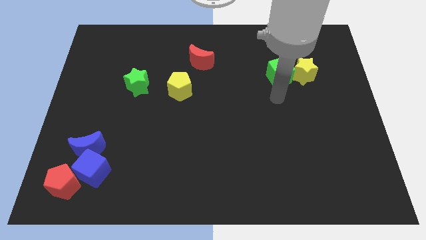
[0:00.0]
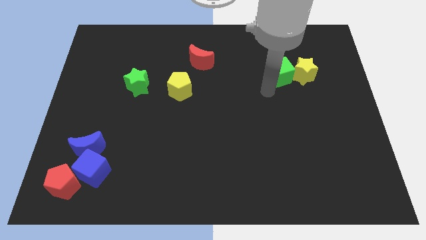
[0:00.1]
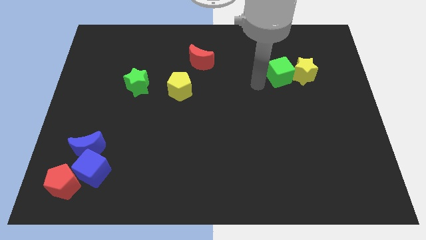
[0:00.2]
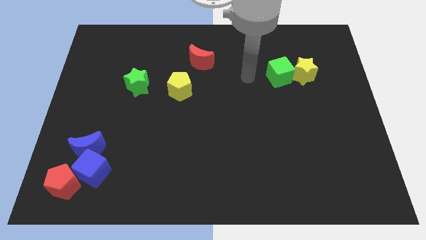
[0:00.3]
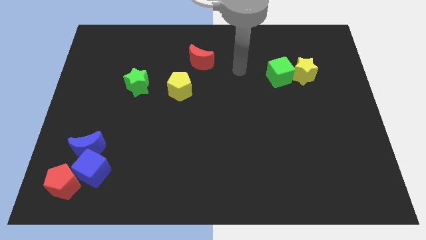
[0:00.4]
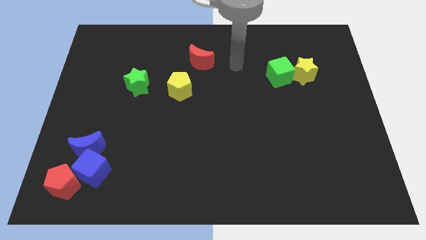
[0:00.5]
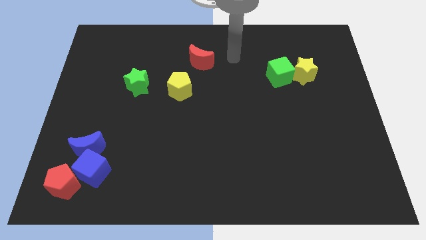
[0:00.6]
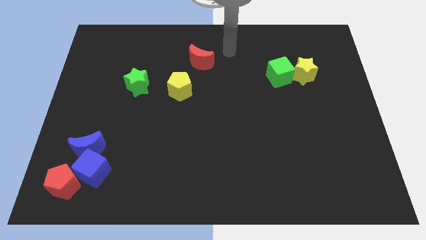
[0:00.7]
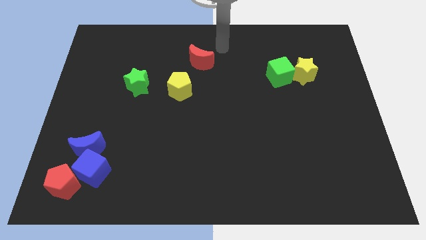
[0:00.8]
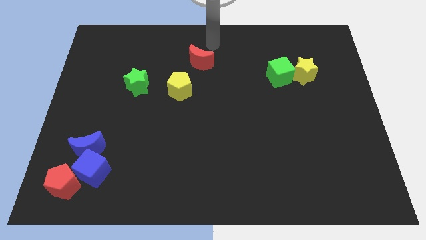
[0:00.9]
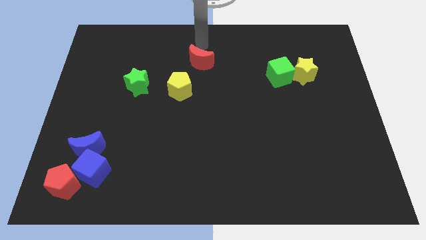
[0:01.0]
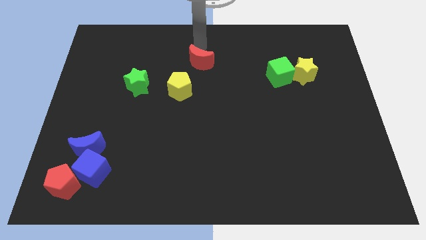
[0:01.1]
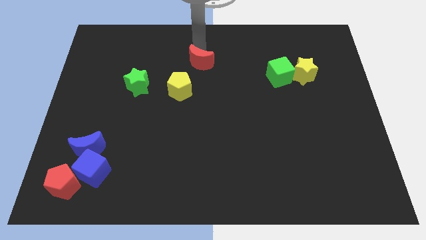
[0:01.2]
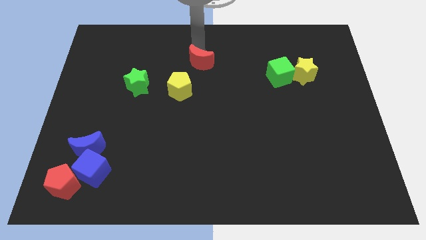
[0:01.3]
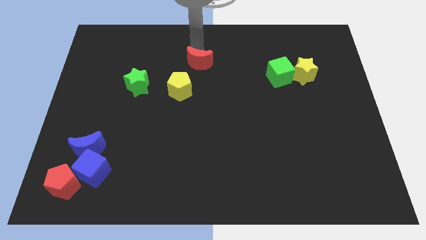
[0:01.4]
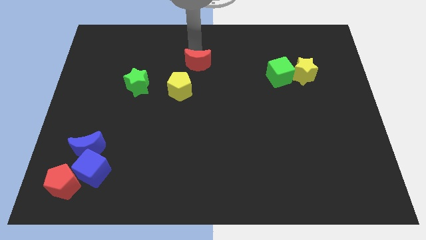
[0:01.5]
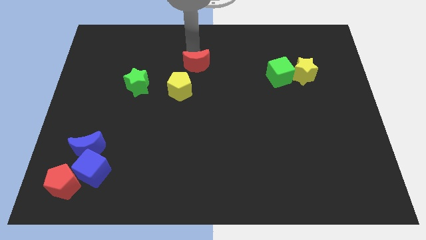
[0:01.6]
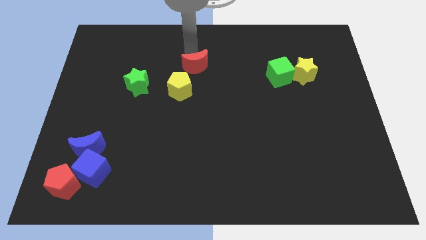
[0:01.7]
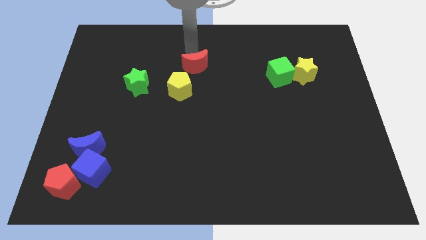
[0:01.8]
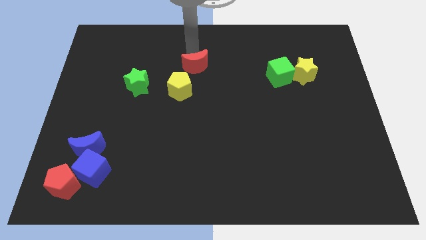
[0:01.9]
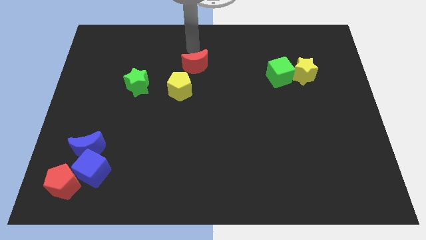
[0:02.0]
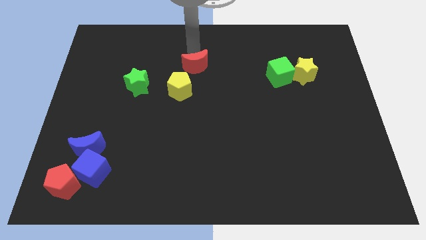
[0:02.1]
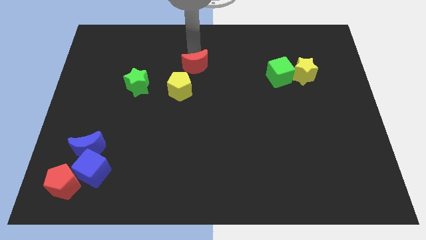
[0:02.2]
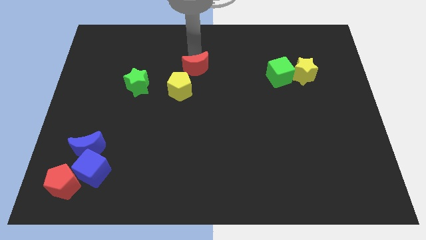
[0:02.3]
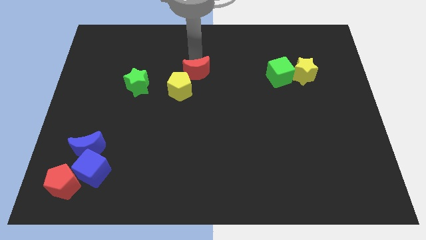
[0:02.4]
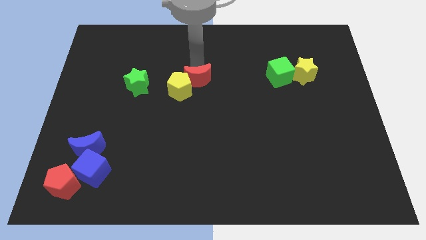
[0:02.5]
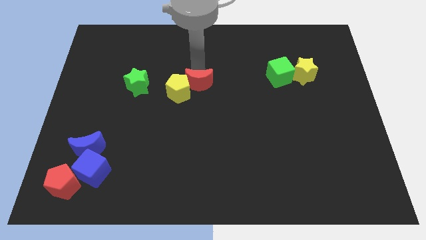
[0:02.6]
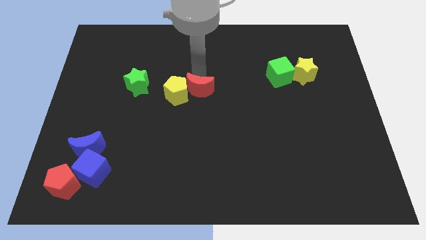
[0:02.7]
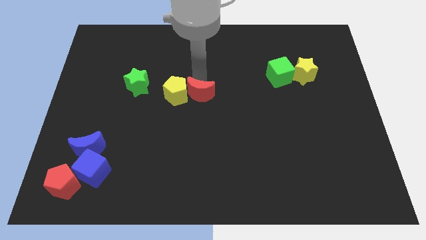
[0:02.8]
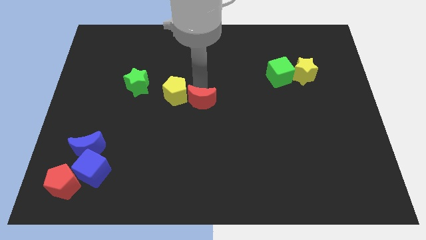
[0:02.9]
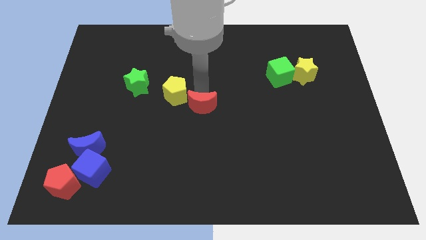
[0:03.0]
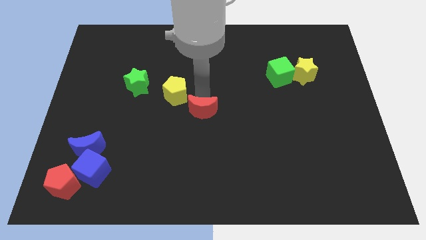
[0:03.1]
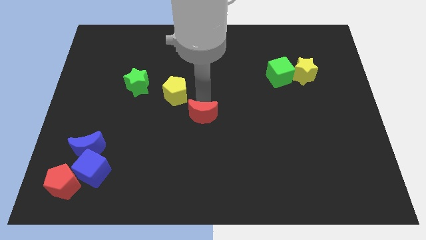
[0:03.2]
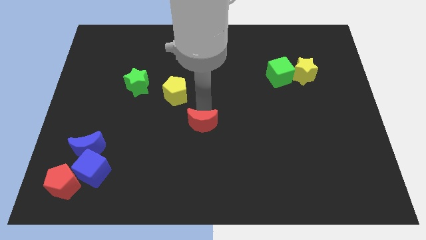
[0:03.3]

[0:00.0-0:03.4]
push the red moon down

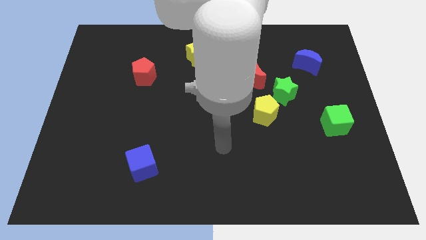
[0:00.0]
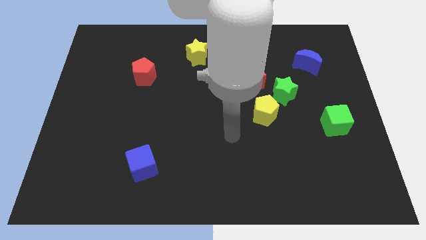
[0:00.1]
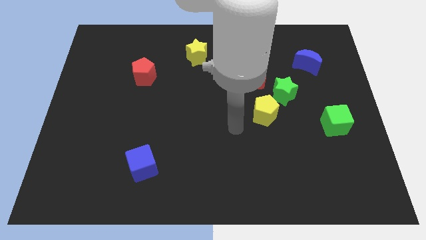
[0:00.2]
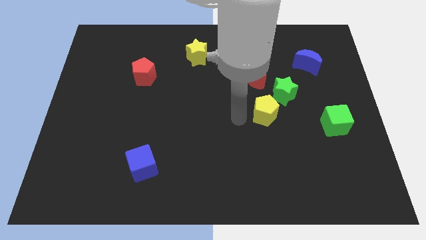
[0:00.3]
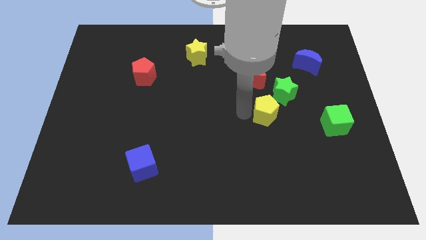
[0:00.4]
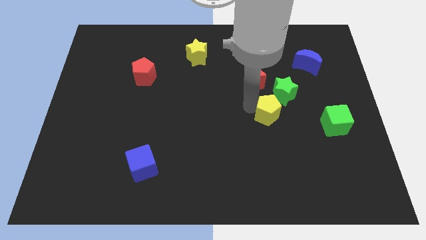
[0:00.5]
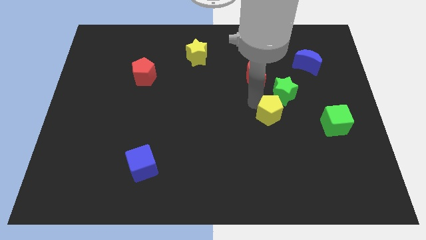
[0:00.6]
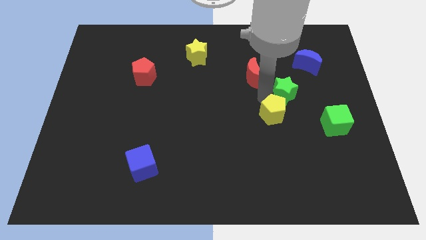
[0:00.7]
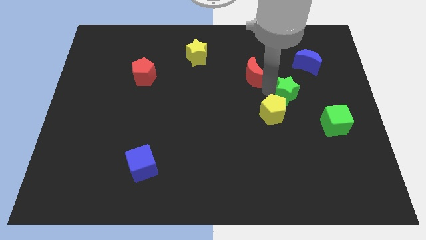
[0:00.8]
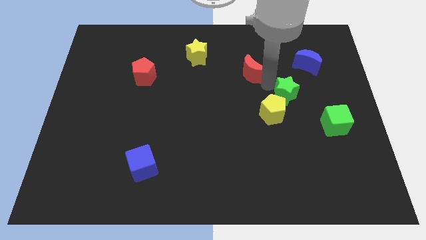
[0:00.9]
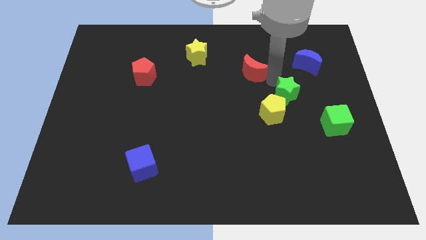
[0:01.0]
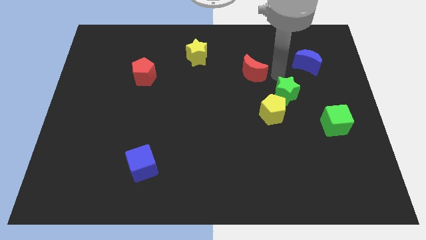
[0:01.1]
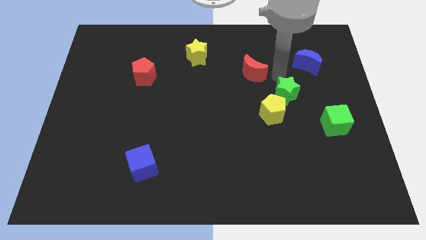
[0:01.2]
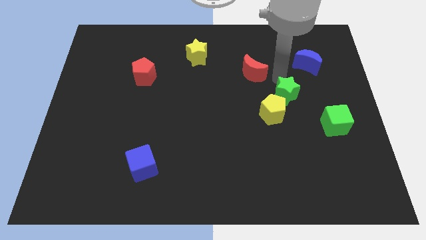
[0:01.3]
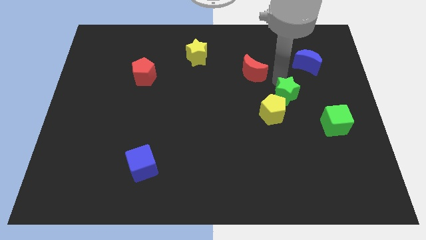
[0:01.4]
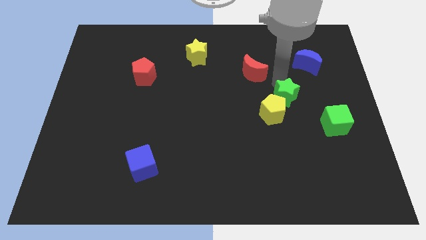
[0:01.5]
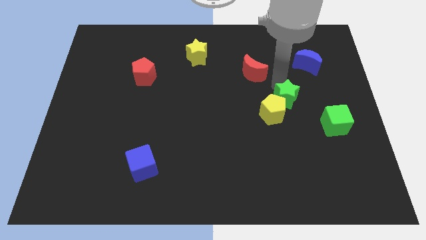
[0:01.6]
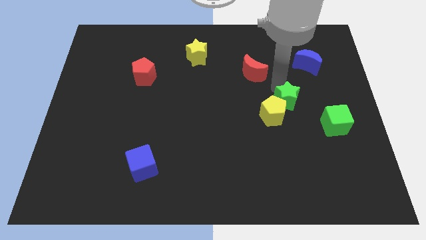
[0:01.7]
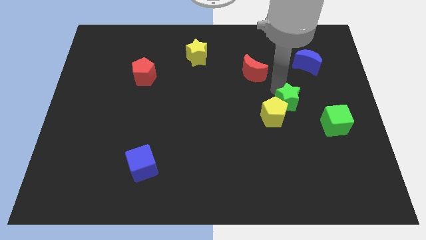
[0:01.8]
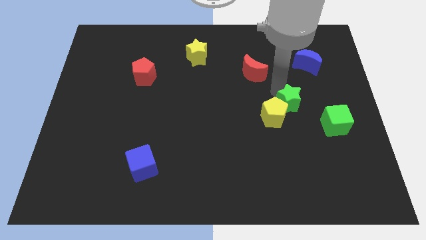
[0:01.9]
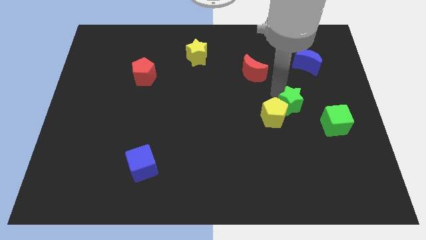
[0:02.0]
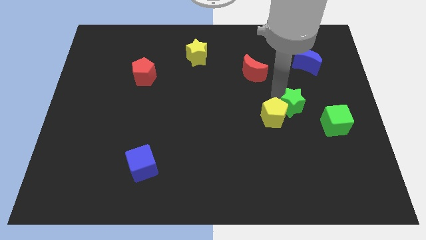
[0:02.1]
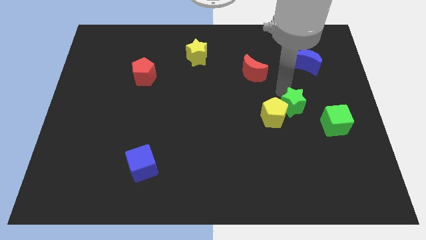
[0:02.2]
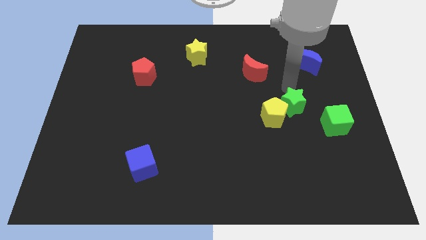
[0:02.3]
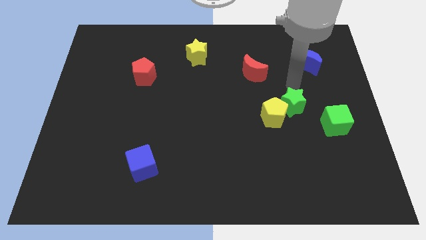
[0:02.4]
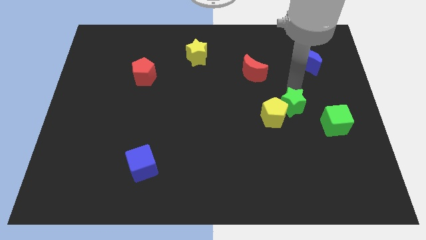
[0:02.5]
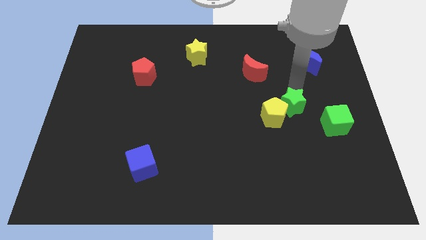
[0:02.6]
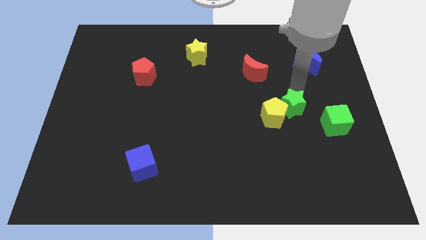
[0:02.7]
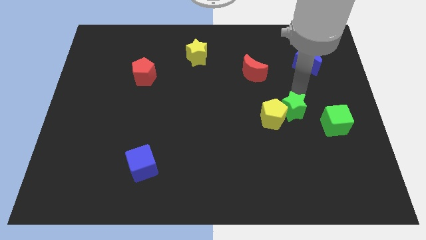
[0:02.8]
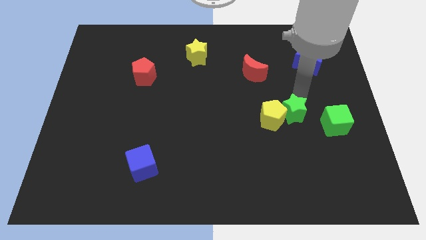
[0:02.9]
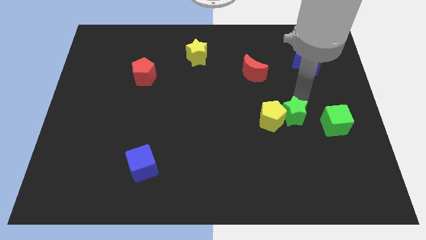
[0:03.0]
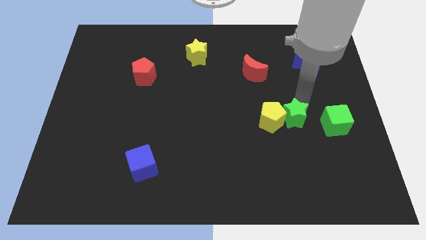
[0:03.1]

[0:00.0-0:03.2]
push the green star slightly down

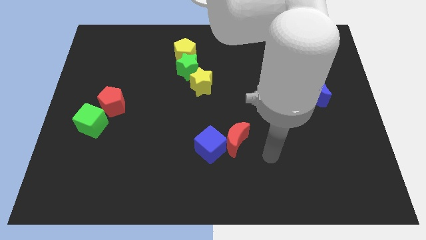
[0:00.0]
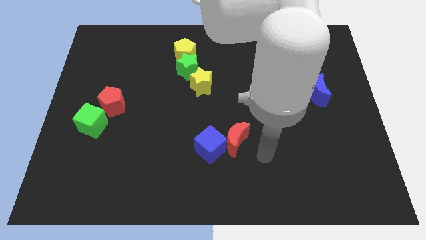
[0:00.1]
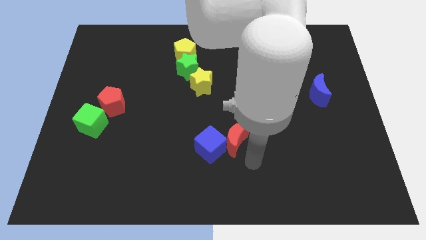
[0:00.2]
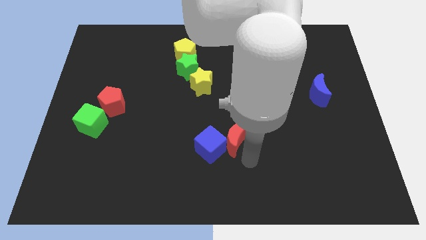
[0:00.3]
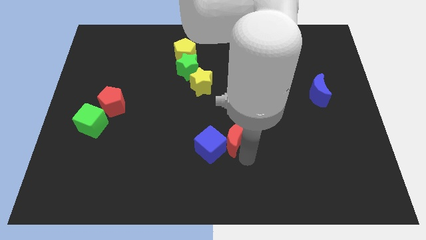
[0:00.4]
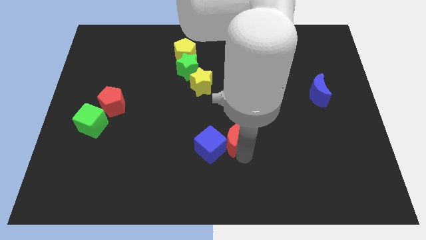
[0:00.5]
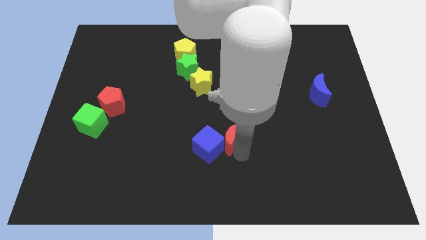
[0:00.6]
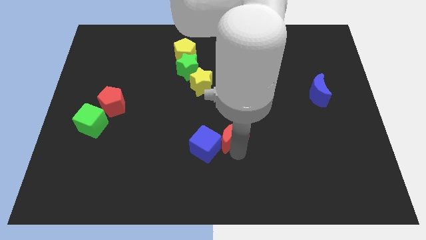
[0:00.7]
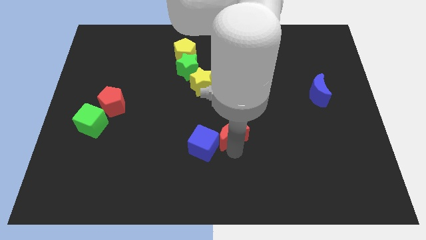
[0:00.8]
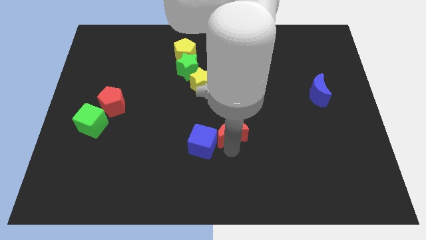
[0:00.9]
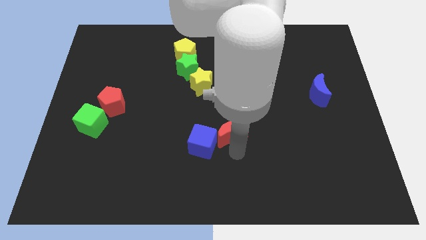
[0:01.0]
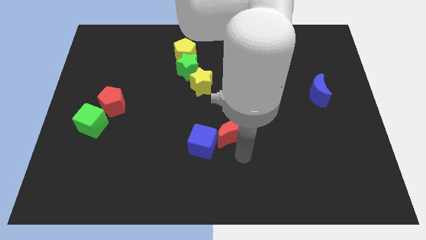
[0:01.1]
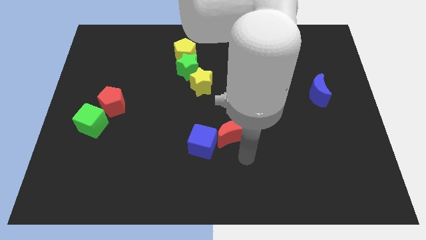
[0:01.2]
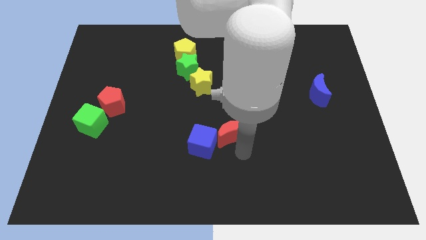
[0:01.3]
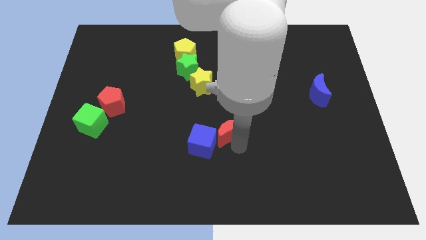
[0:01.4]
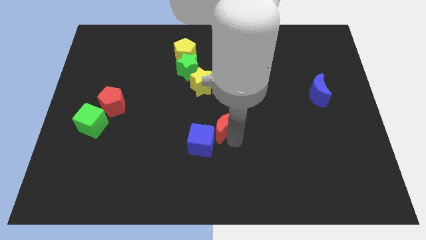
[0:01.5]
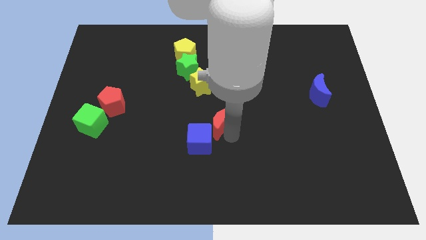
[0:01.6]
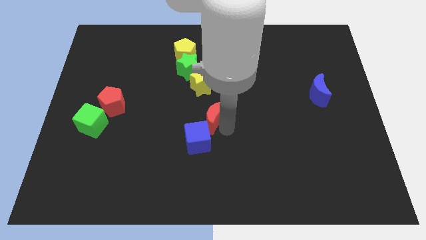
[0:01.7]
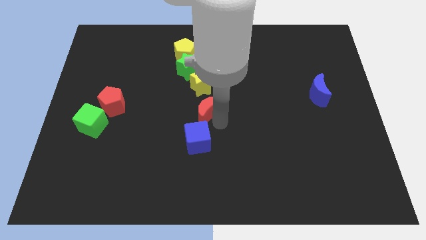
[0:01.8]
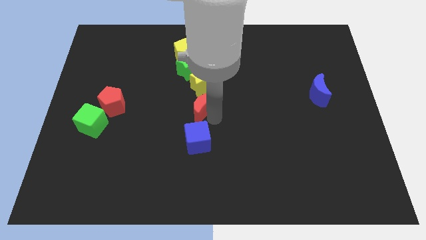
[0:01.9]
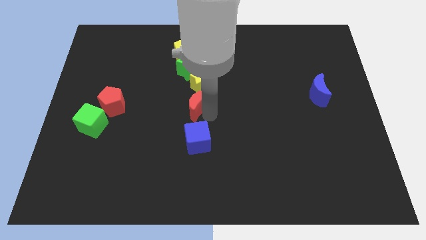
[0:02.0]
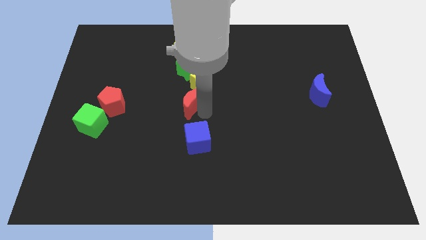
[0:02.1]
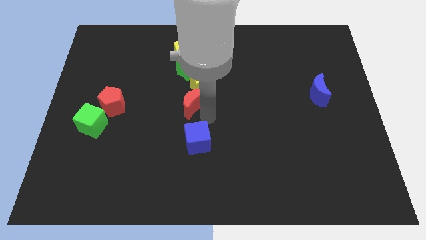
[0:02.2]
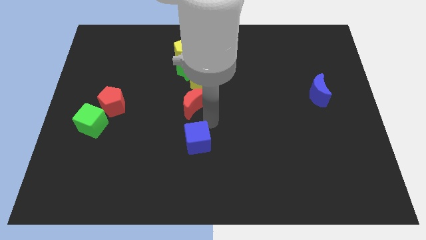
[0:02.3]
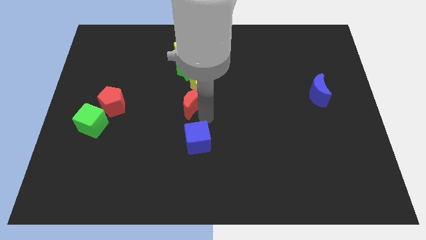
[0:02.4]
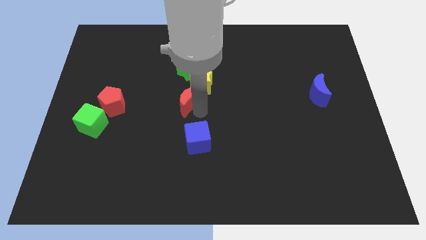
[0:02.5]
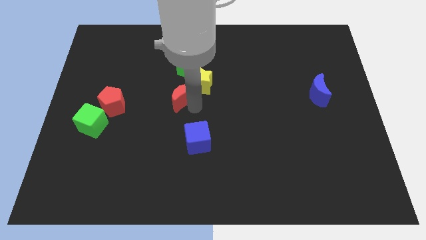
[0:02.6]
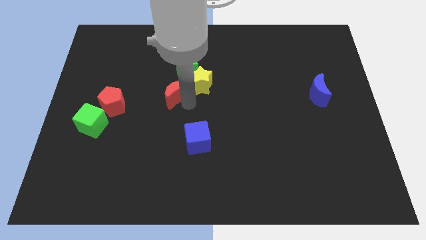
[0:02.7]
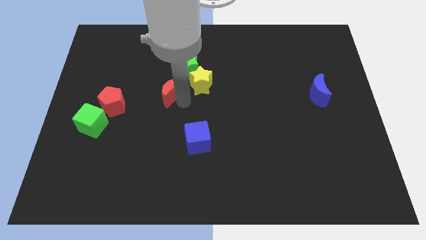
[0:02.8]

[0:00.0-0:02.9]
push the red moon diagonally up and left
